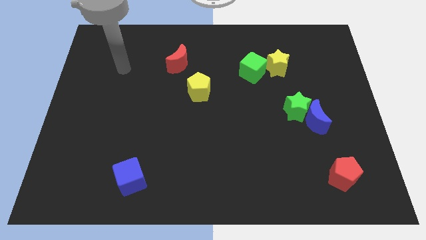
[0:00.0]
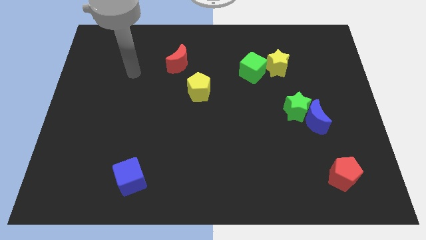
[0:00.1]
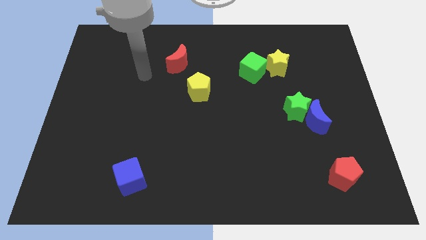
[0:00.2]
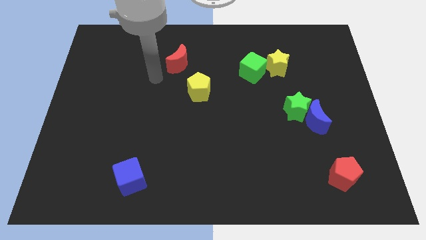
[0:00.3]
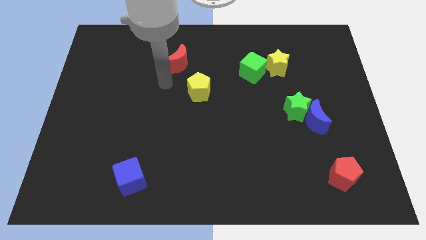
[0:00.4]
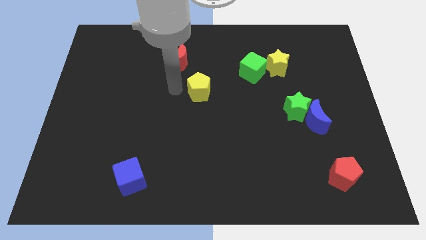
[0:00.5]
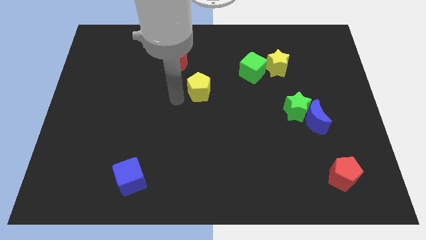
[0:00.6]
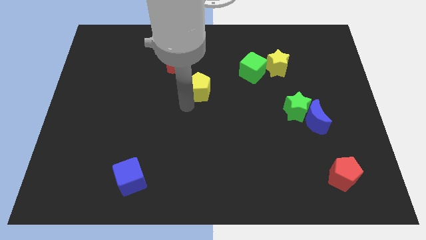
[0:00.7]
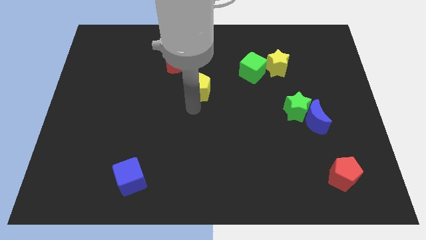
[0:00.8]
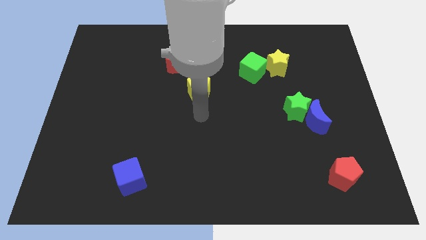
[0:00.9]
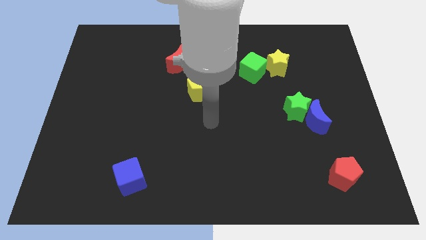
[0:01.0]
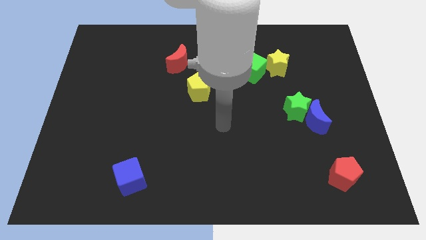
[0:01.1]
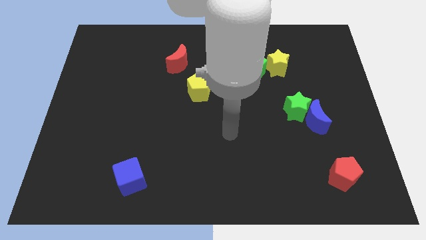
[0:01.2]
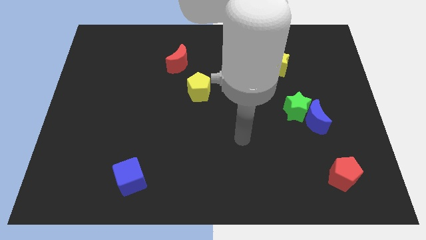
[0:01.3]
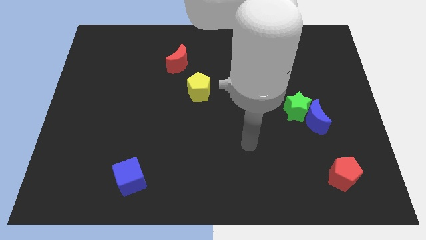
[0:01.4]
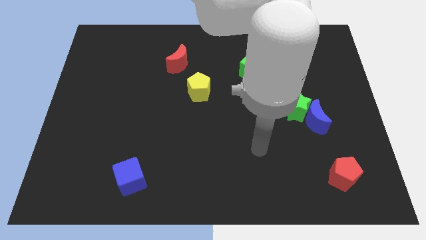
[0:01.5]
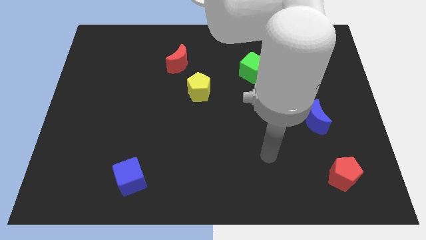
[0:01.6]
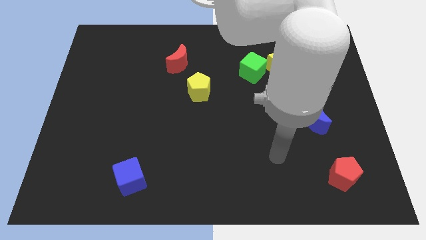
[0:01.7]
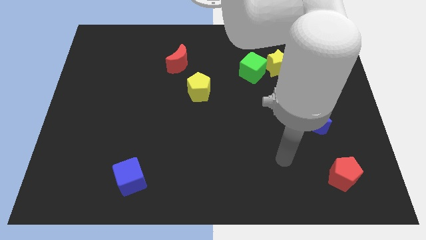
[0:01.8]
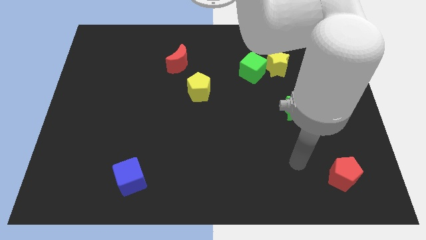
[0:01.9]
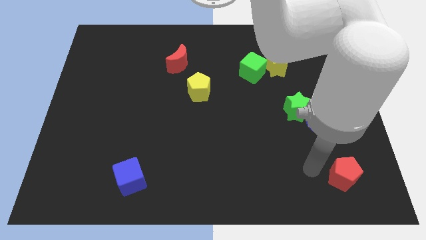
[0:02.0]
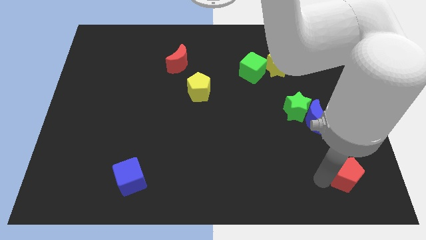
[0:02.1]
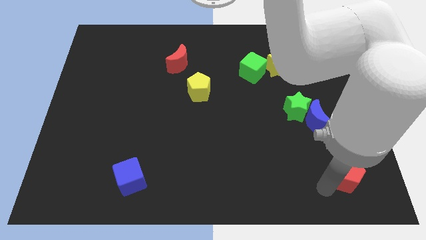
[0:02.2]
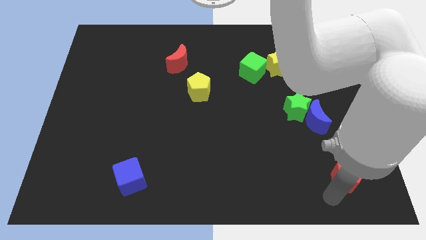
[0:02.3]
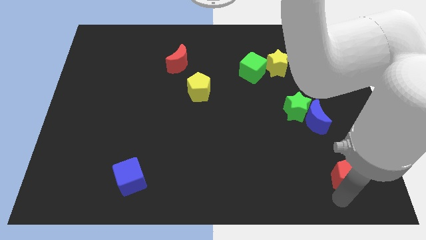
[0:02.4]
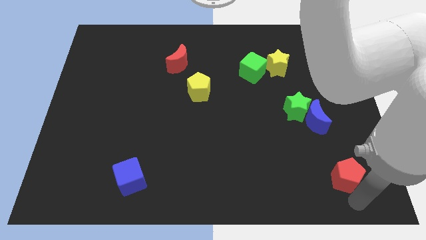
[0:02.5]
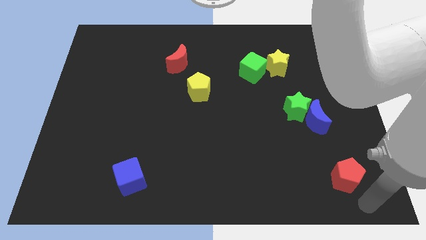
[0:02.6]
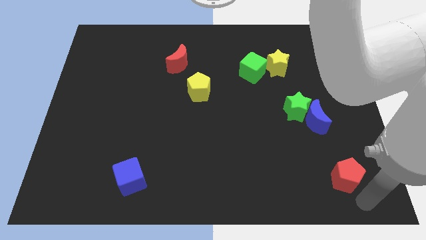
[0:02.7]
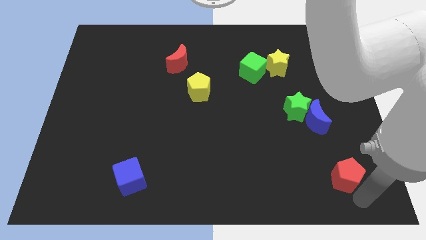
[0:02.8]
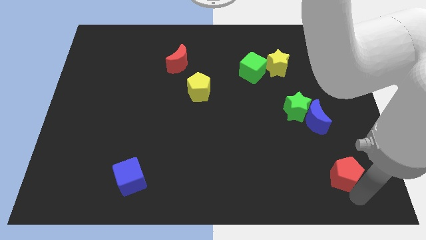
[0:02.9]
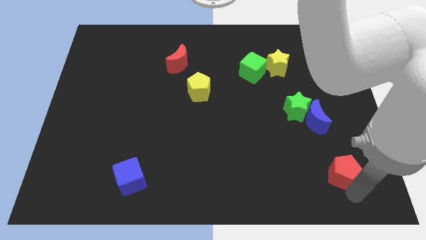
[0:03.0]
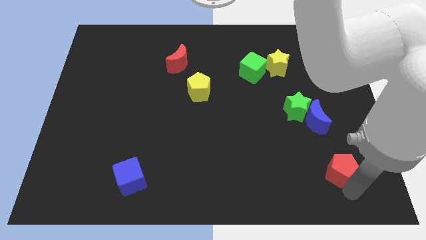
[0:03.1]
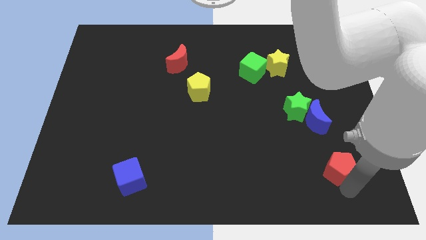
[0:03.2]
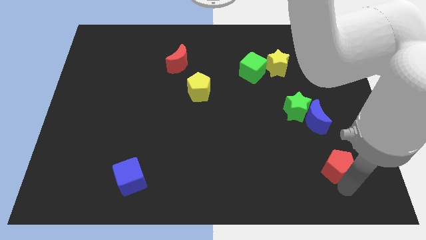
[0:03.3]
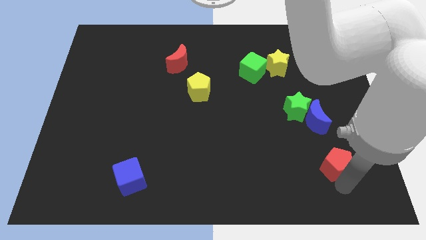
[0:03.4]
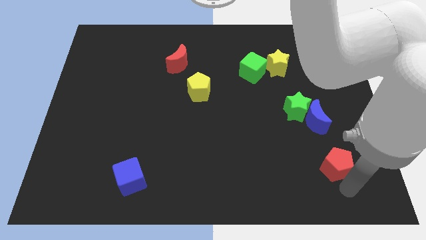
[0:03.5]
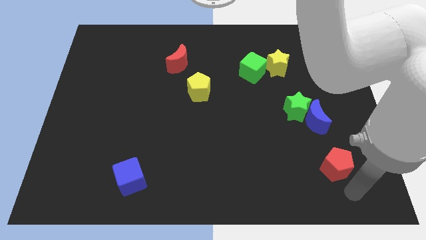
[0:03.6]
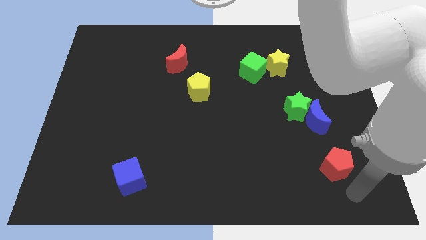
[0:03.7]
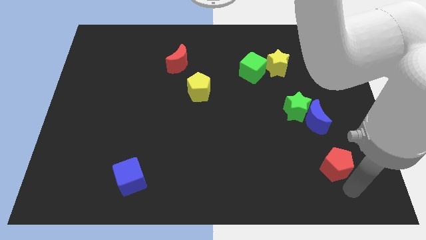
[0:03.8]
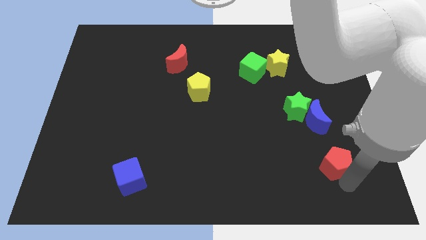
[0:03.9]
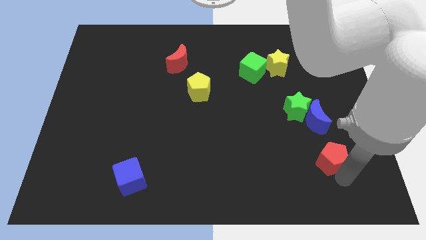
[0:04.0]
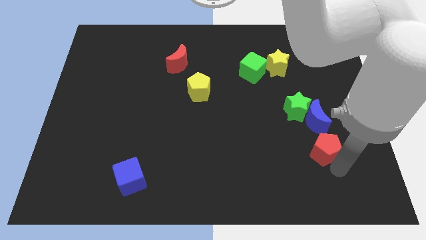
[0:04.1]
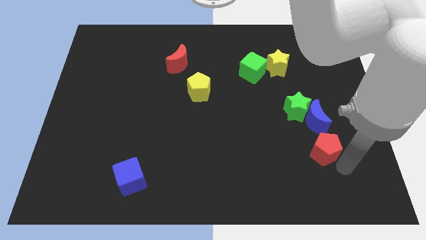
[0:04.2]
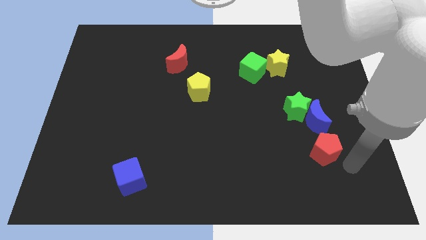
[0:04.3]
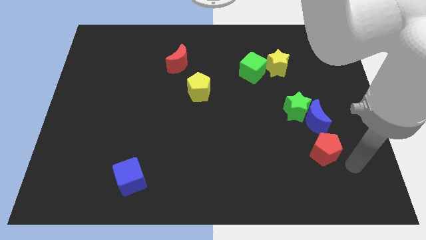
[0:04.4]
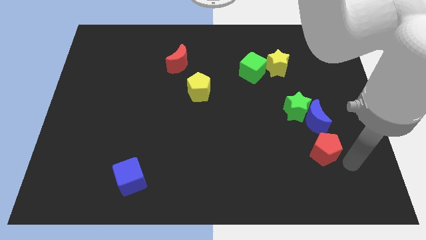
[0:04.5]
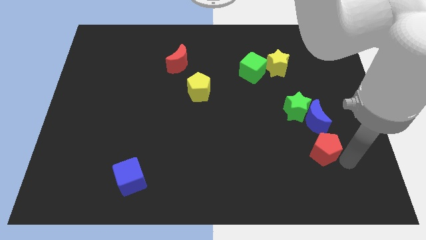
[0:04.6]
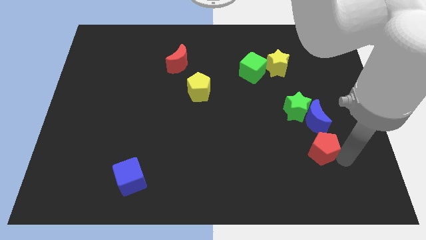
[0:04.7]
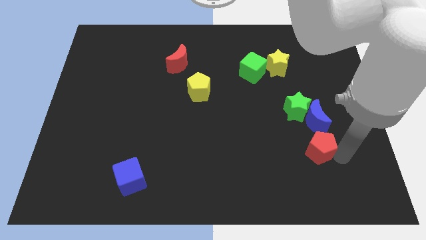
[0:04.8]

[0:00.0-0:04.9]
slide the red pentagon a bit up and left

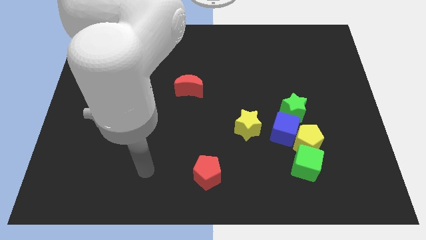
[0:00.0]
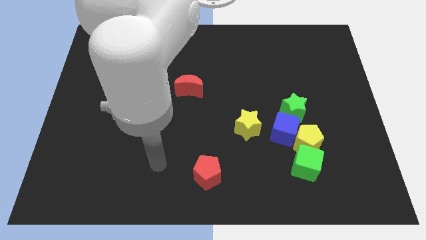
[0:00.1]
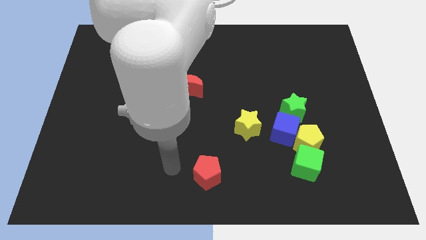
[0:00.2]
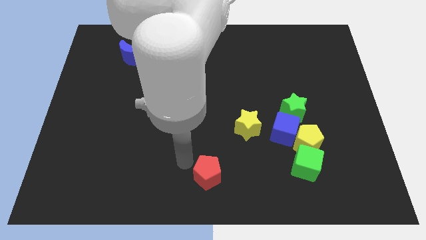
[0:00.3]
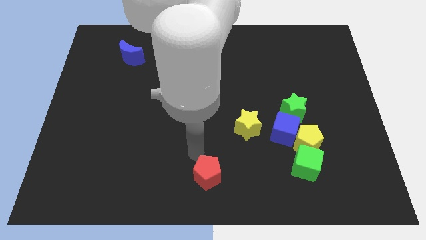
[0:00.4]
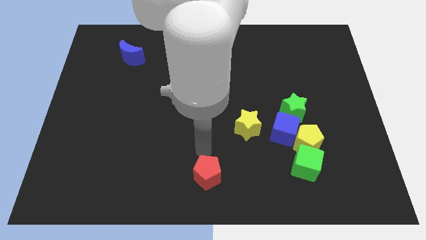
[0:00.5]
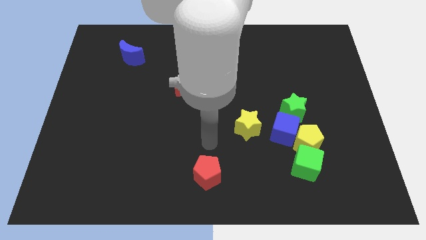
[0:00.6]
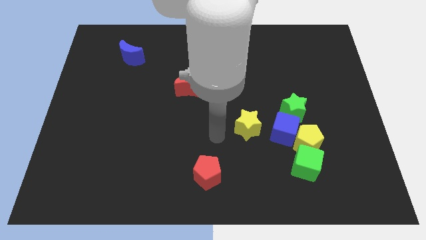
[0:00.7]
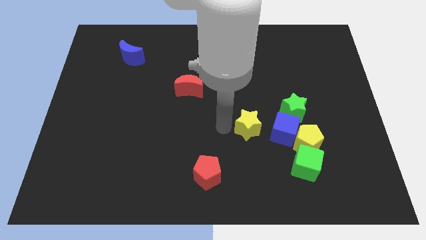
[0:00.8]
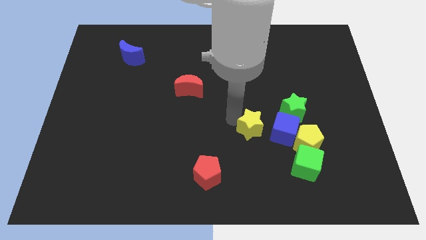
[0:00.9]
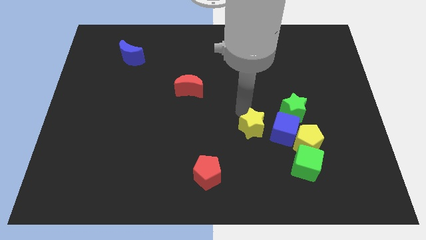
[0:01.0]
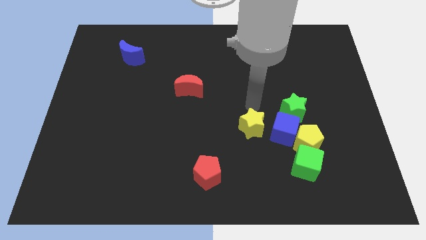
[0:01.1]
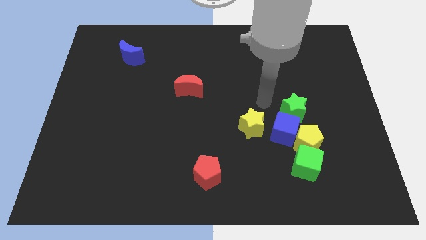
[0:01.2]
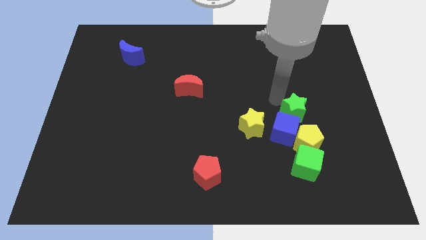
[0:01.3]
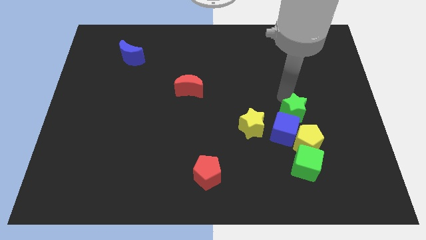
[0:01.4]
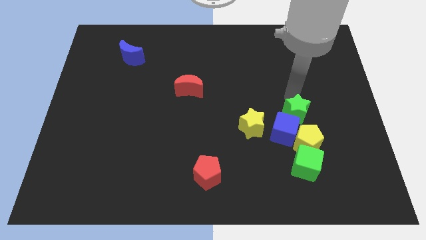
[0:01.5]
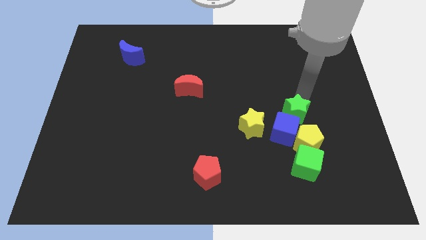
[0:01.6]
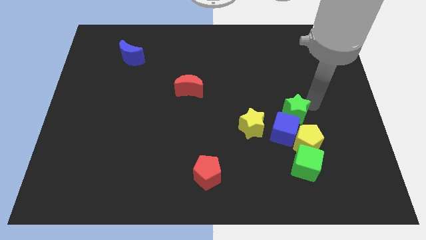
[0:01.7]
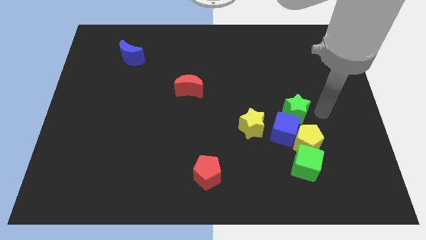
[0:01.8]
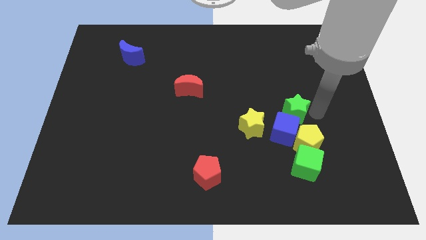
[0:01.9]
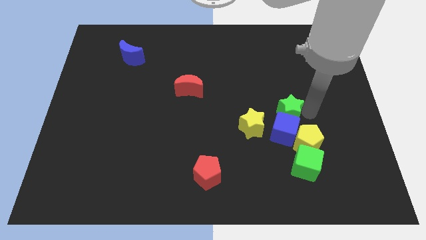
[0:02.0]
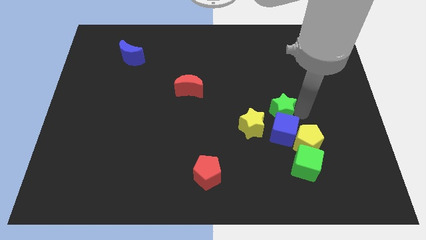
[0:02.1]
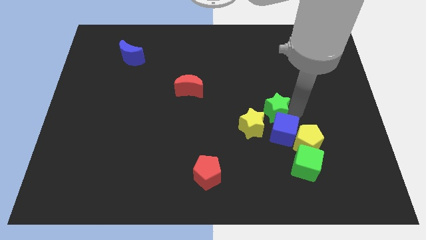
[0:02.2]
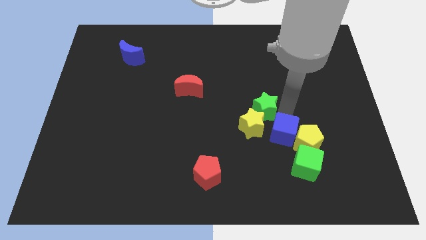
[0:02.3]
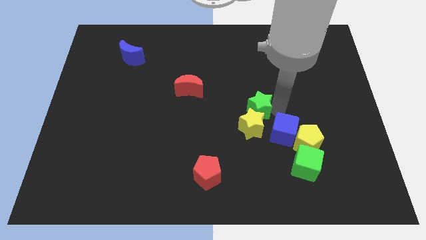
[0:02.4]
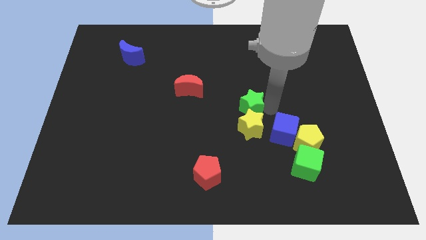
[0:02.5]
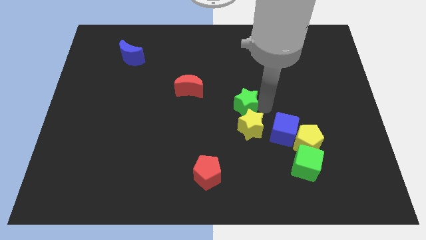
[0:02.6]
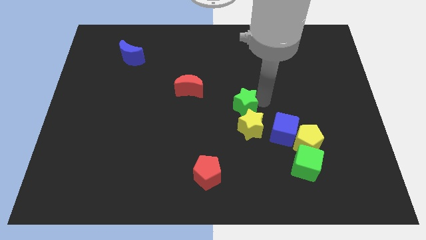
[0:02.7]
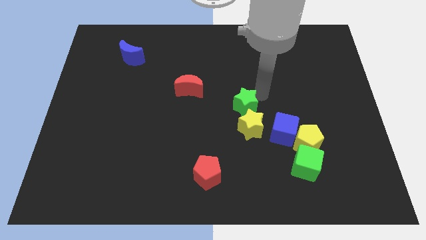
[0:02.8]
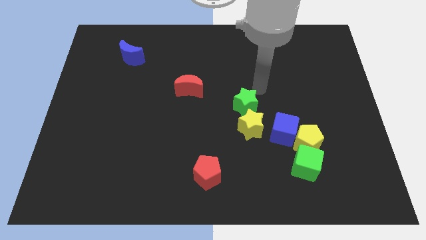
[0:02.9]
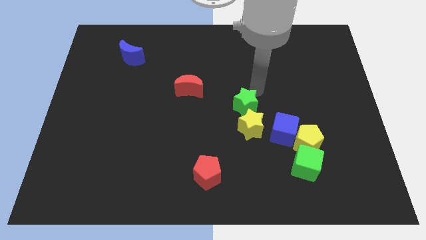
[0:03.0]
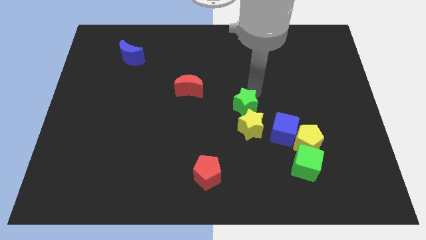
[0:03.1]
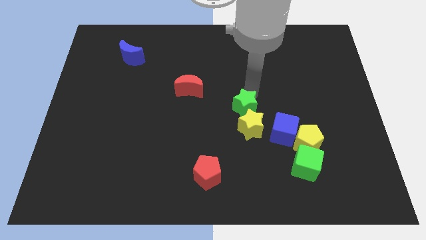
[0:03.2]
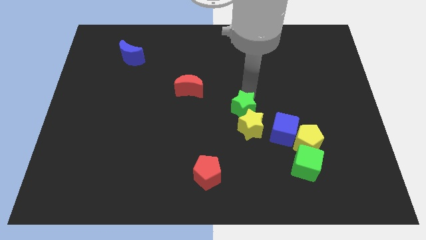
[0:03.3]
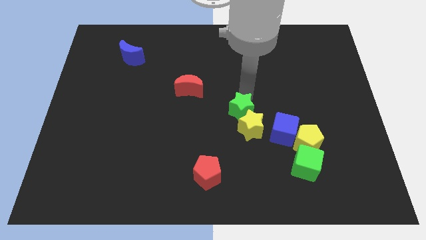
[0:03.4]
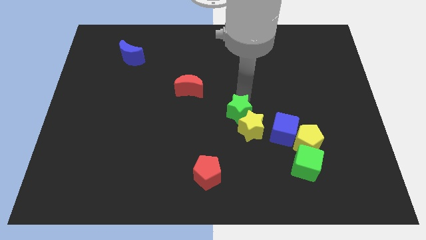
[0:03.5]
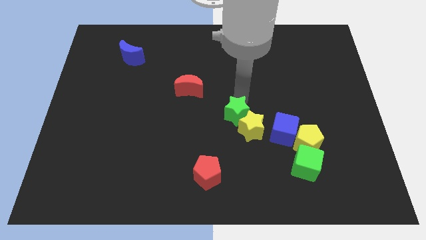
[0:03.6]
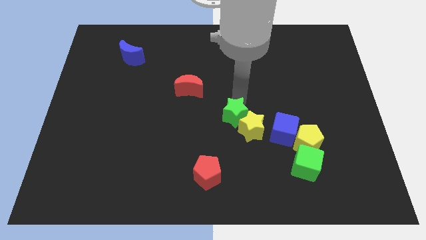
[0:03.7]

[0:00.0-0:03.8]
push the green star diagonally downwards and left somewhat
